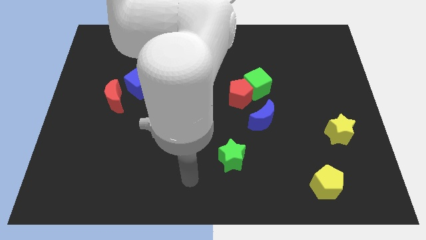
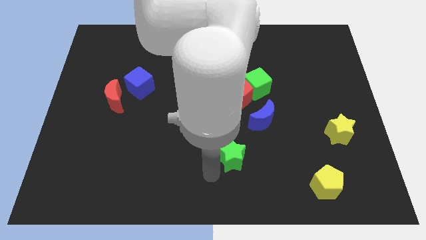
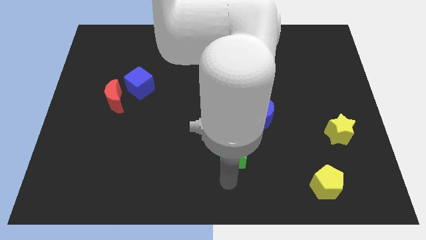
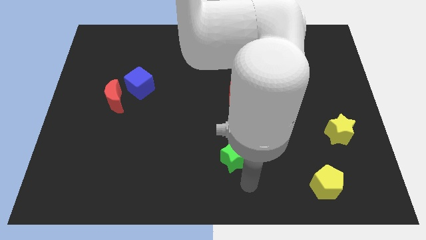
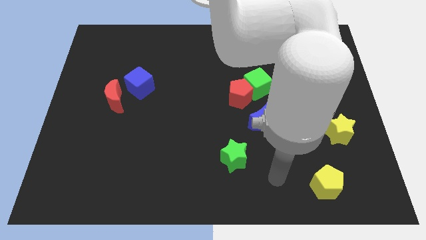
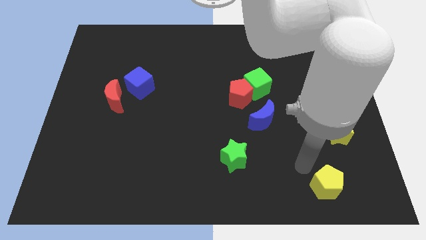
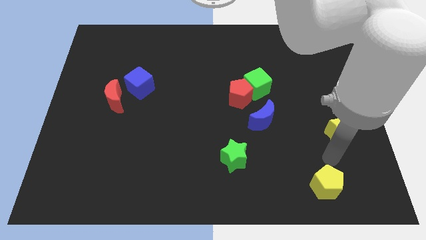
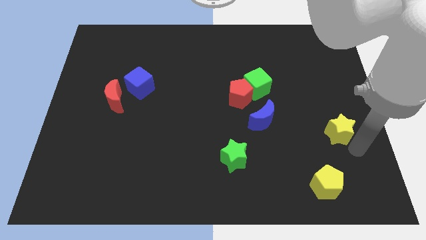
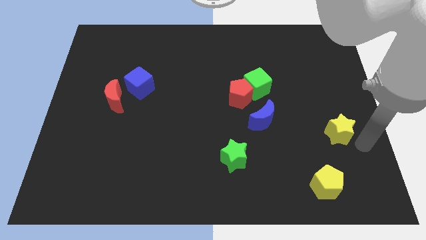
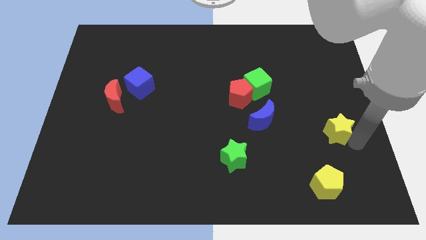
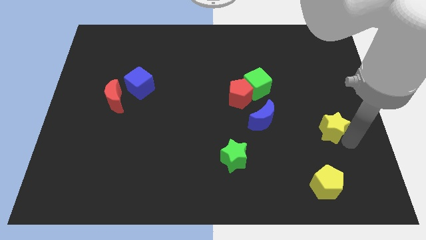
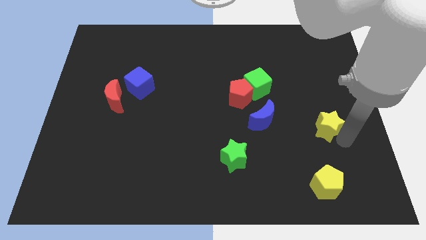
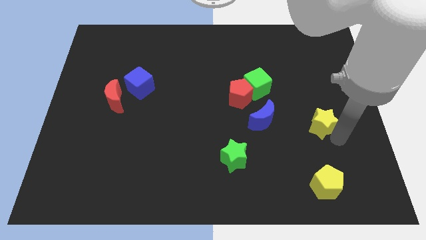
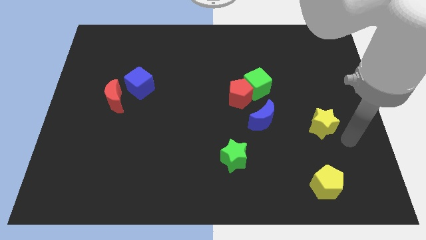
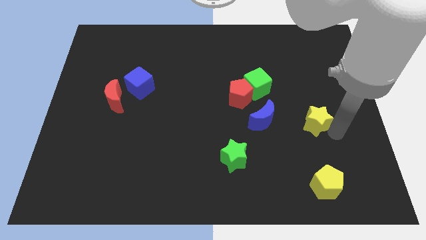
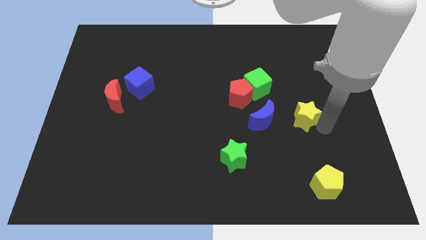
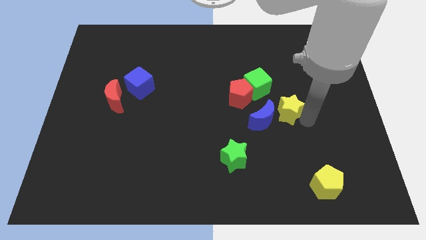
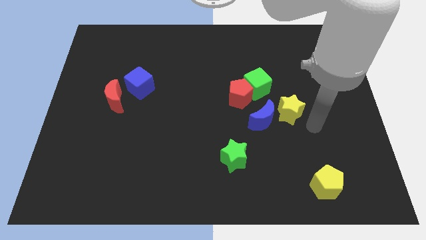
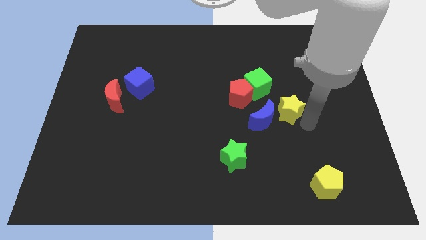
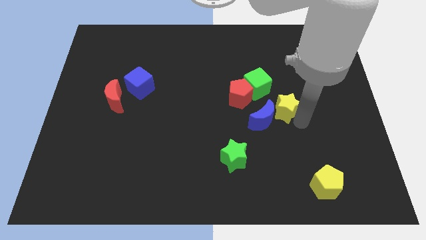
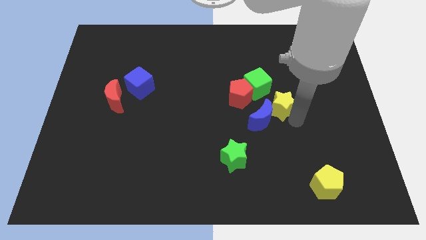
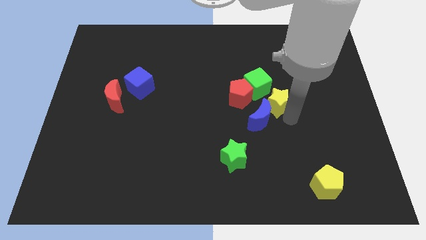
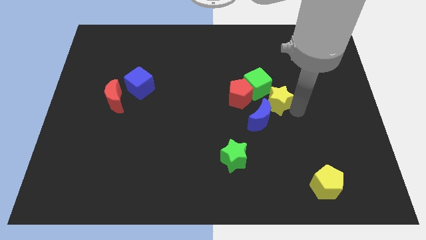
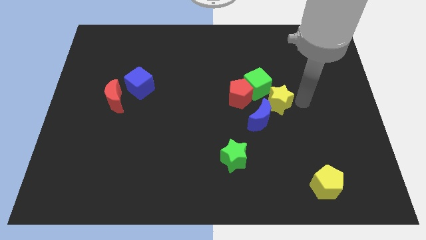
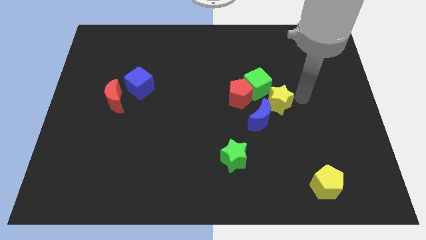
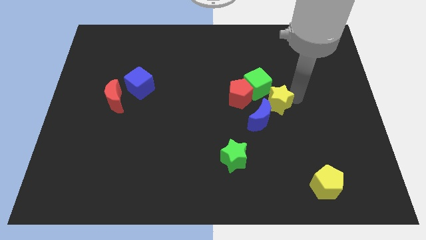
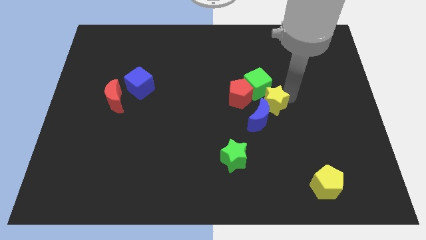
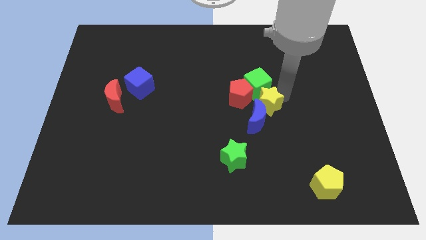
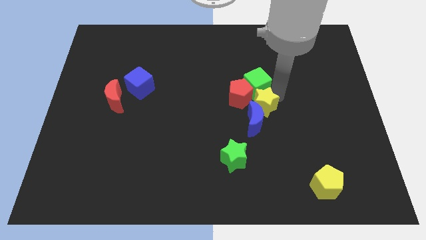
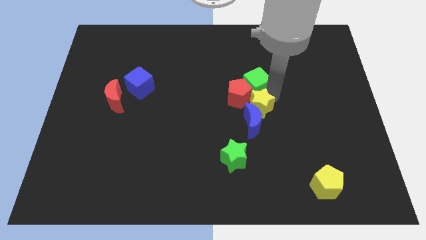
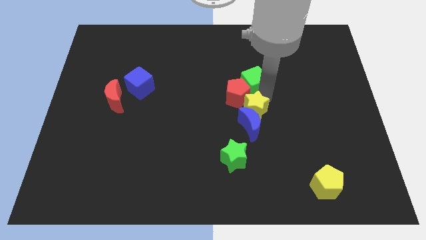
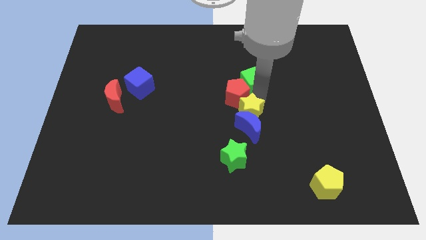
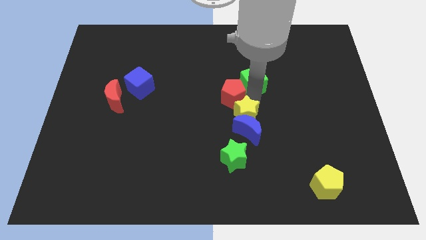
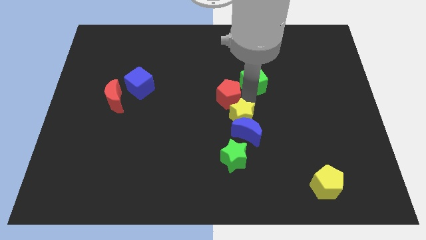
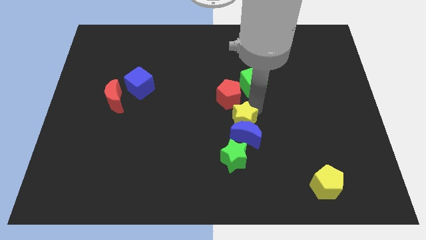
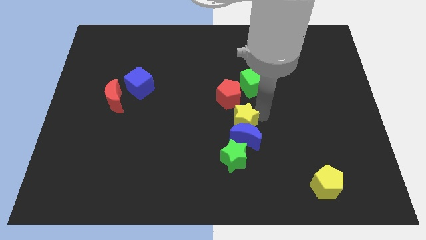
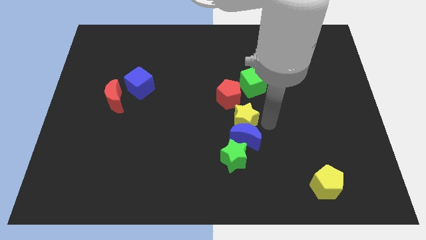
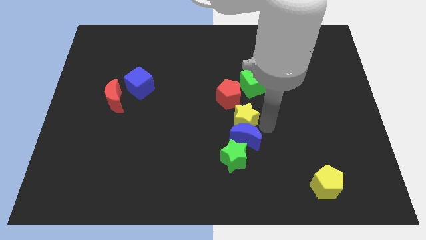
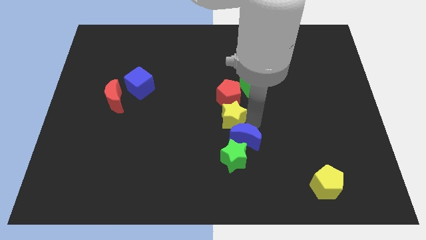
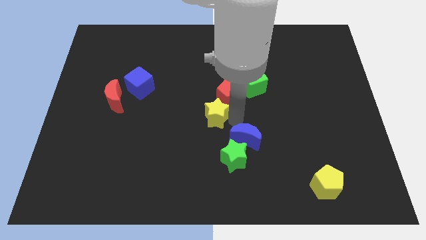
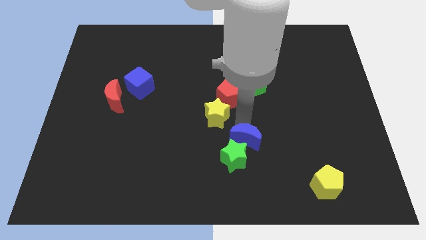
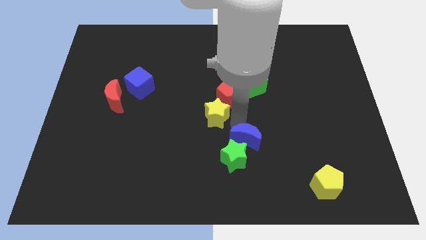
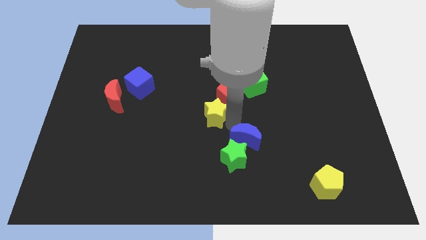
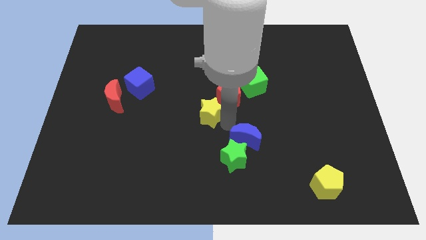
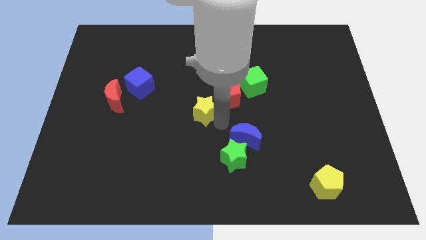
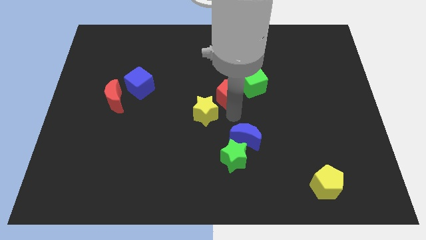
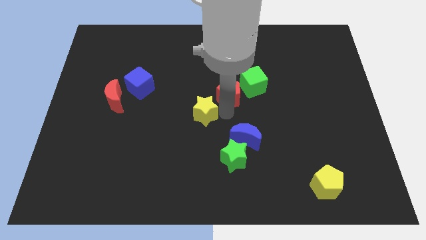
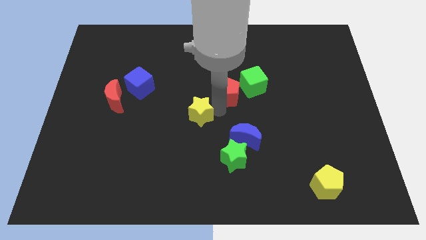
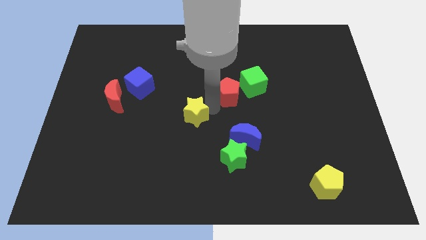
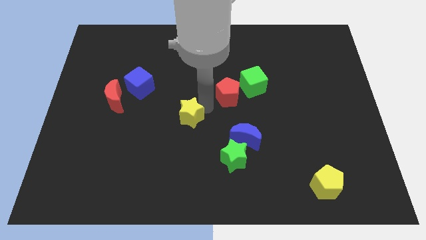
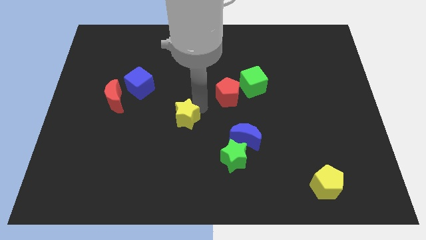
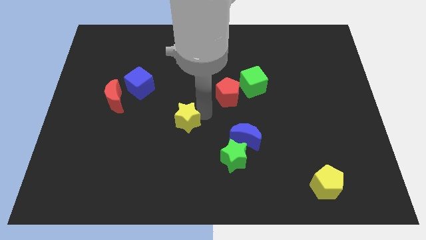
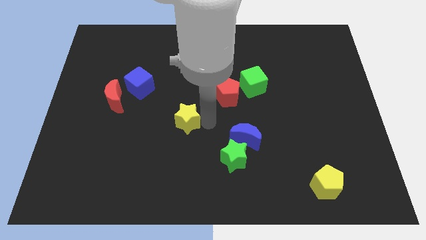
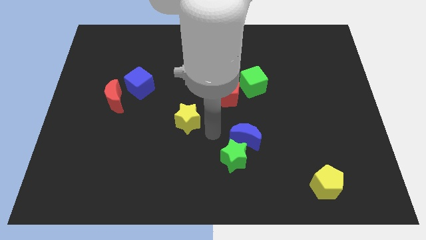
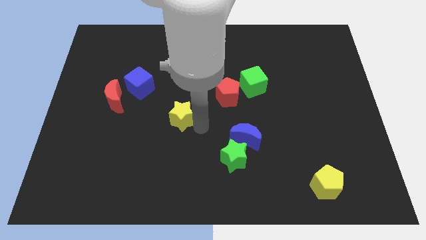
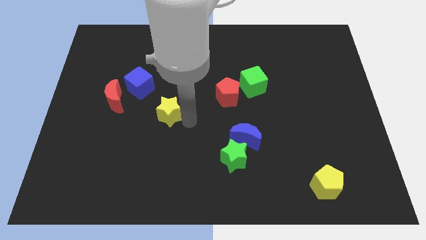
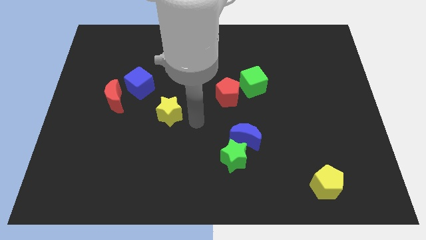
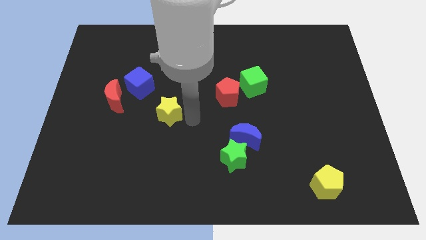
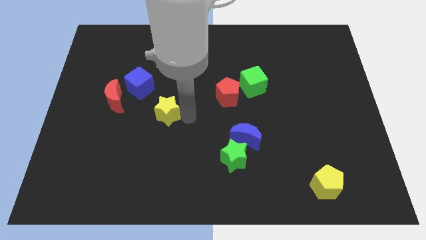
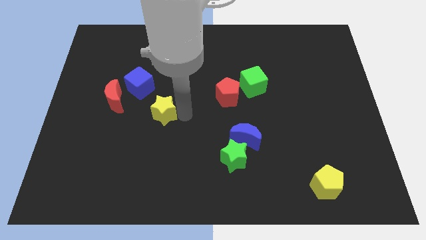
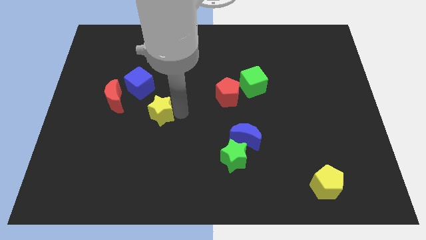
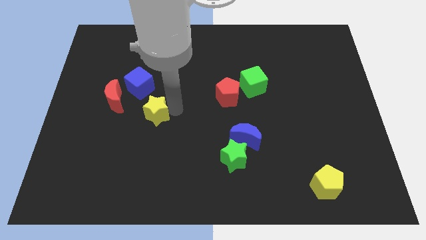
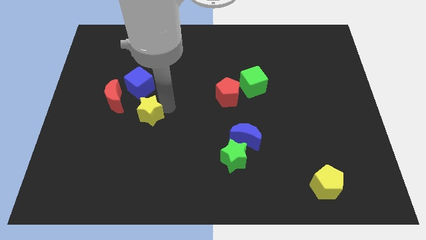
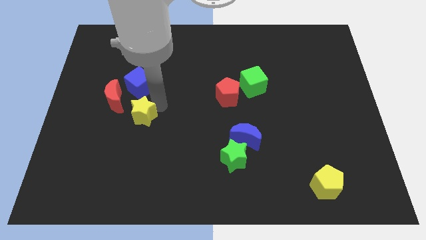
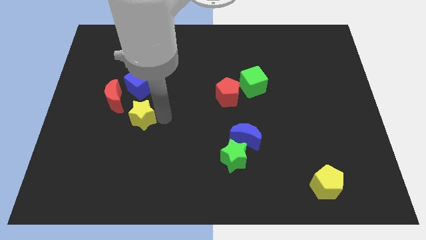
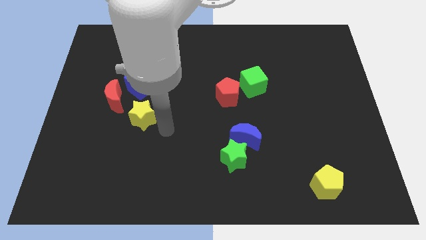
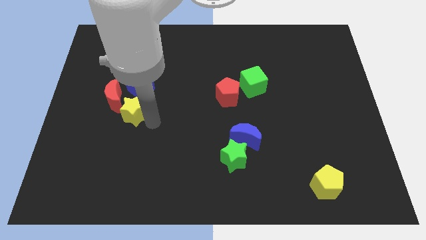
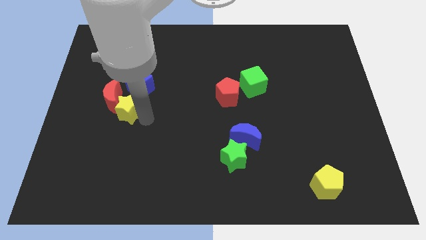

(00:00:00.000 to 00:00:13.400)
slide the yellow star close to the red moon

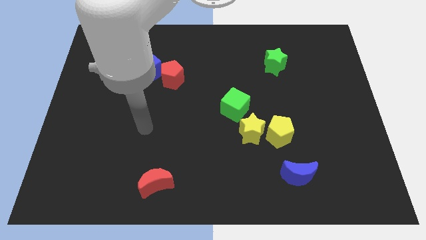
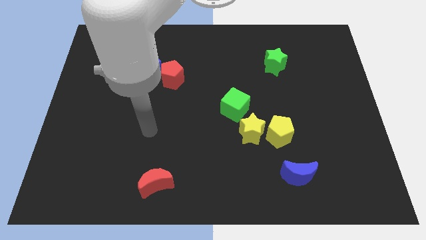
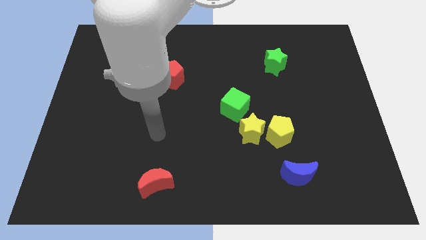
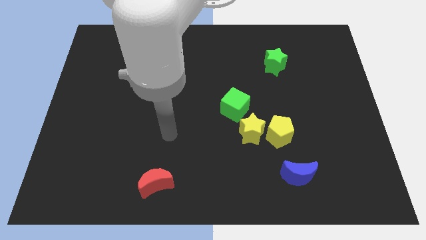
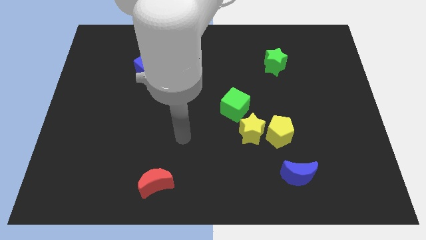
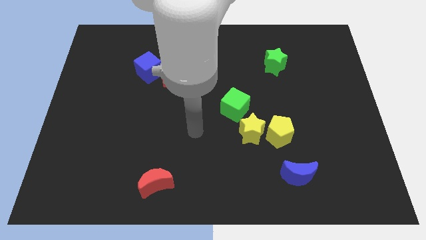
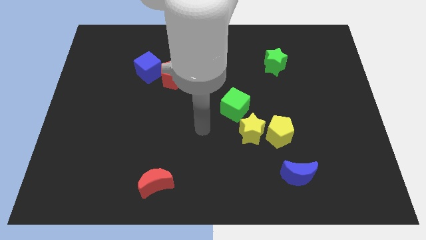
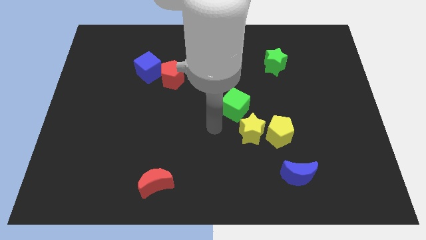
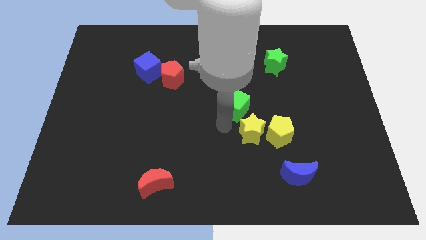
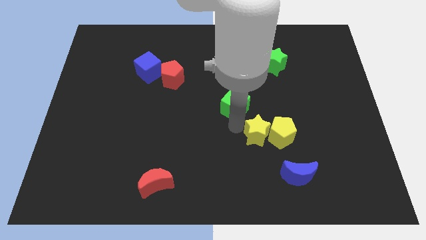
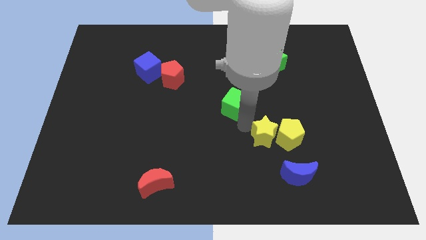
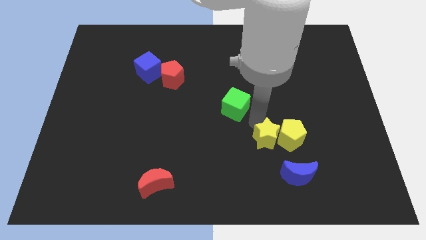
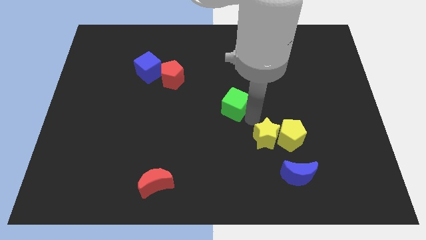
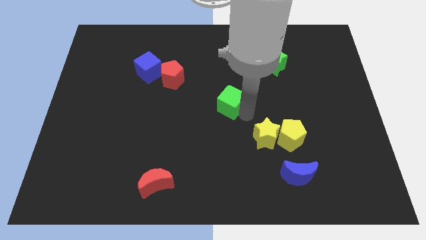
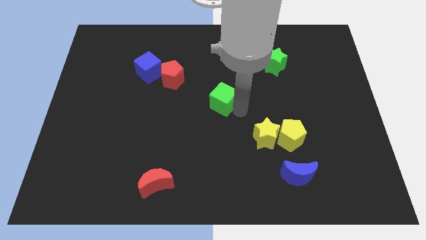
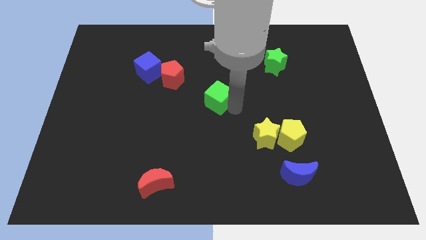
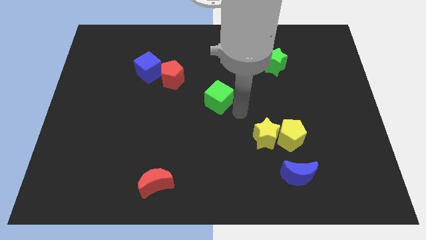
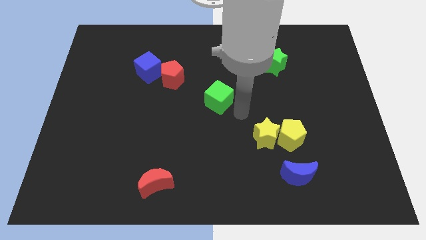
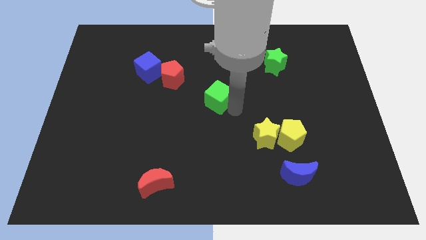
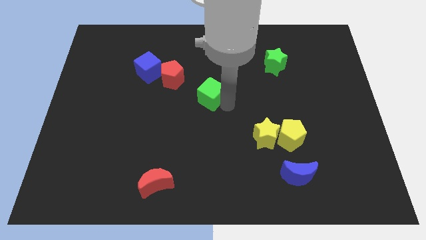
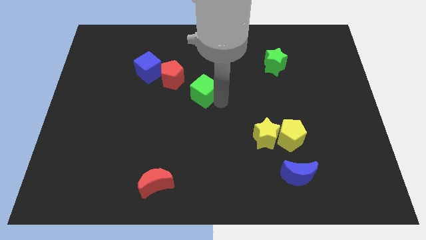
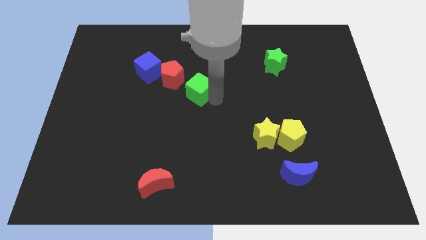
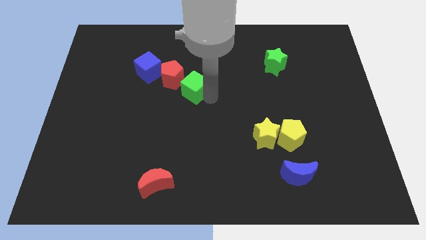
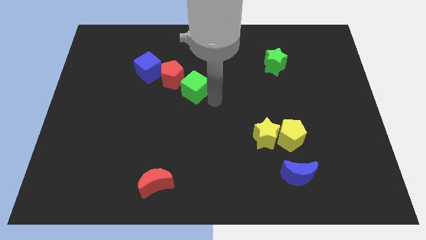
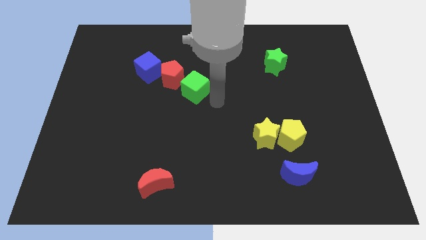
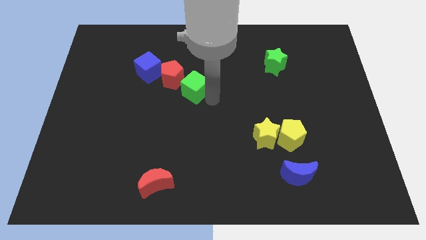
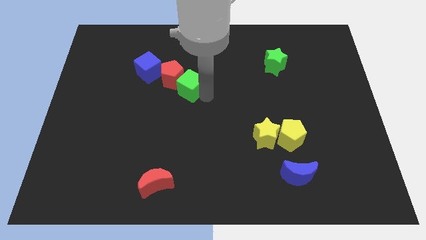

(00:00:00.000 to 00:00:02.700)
push the green cube next to the red pentagon
